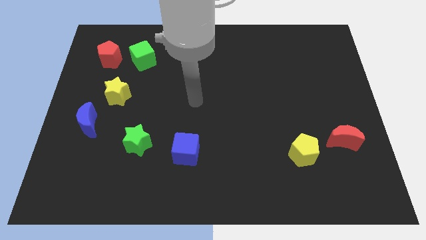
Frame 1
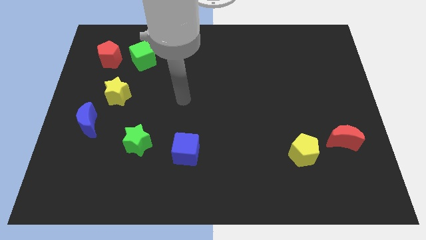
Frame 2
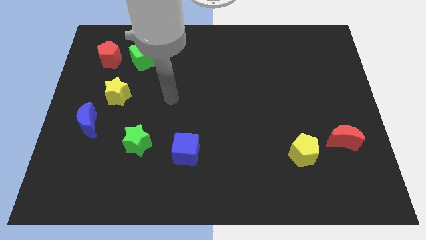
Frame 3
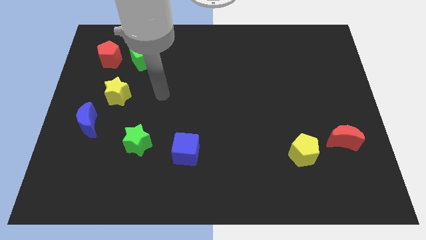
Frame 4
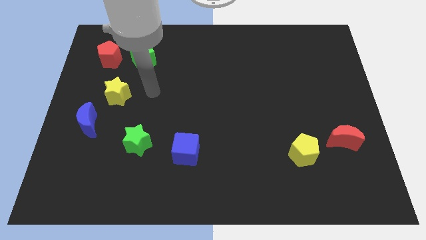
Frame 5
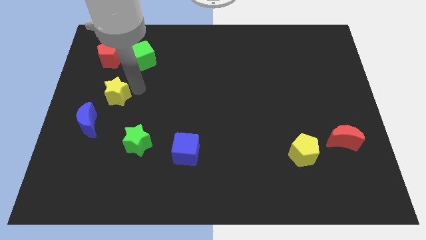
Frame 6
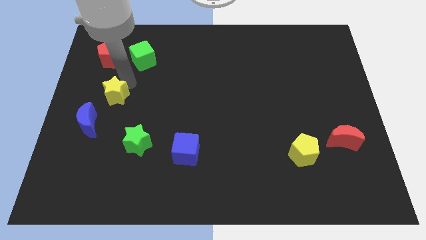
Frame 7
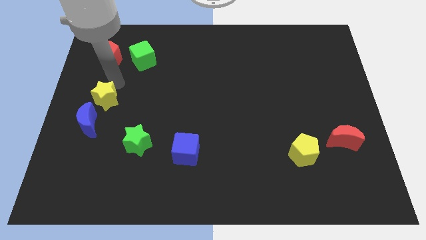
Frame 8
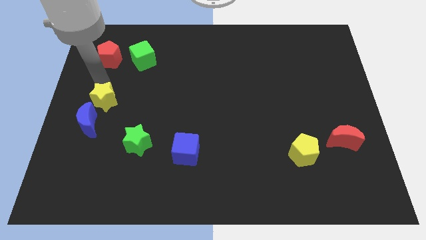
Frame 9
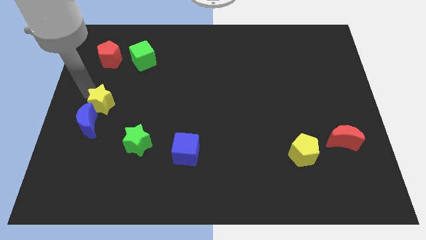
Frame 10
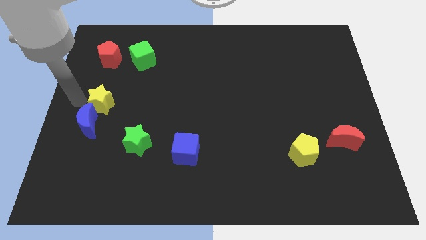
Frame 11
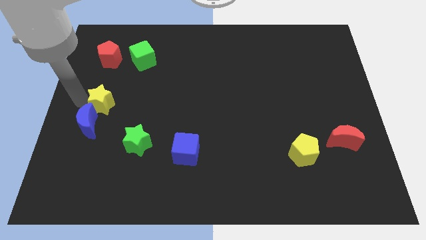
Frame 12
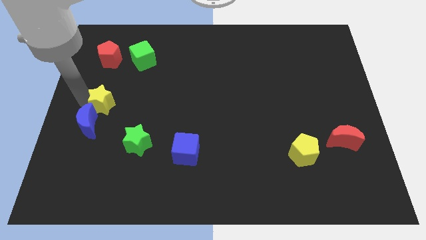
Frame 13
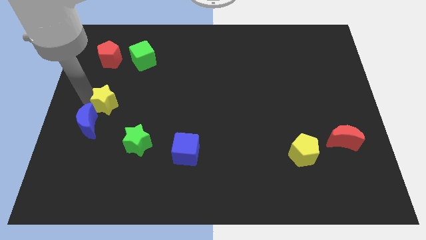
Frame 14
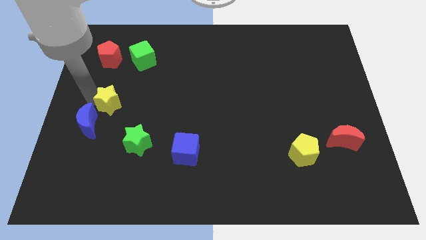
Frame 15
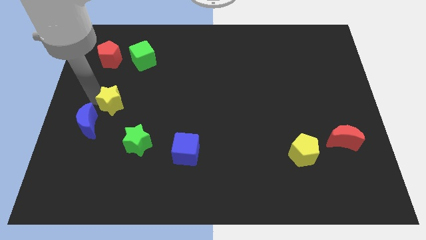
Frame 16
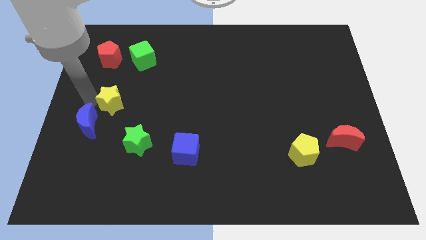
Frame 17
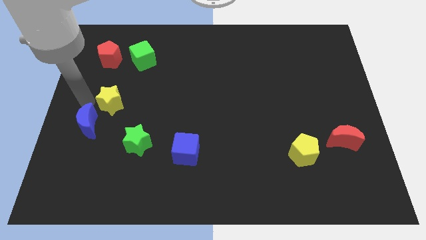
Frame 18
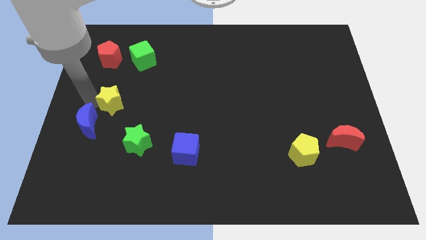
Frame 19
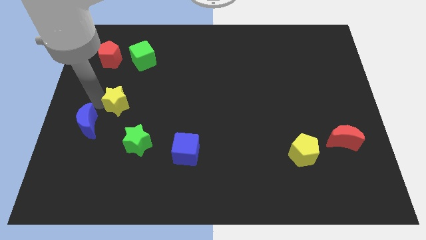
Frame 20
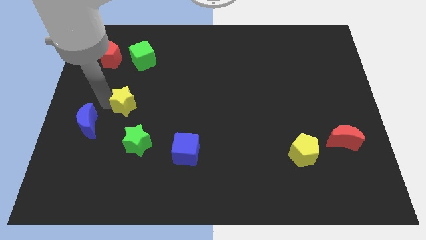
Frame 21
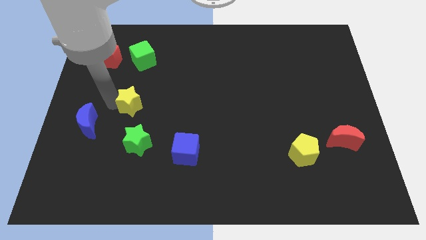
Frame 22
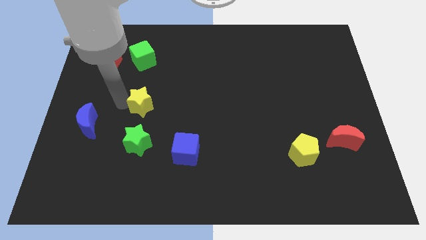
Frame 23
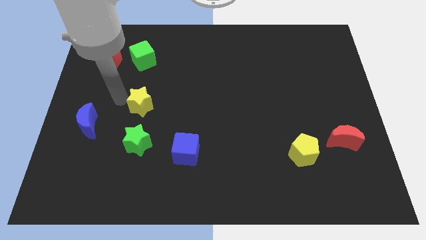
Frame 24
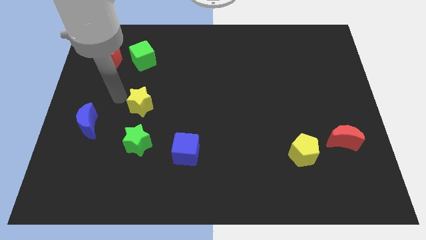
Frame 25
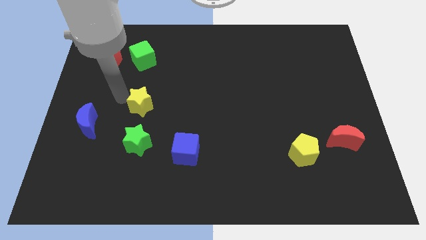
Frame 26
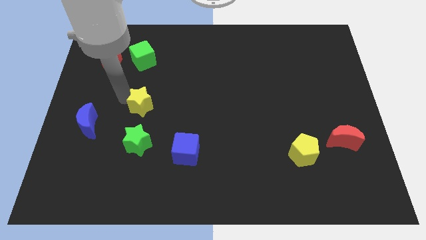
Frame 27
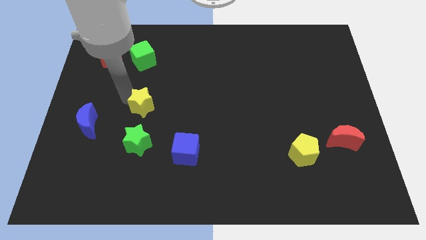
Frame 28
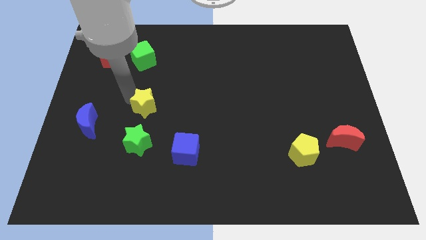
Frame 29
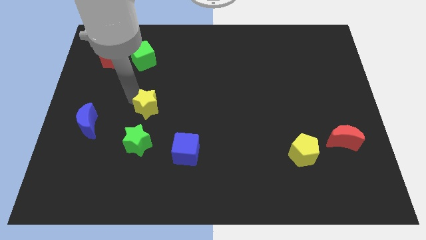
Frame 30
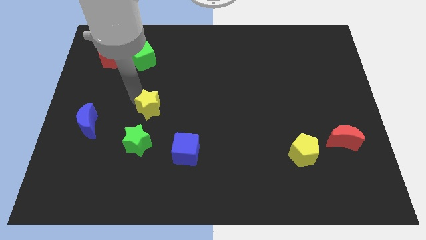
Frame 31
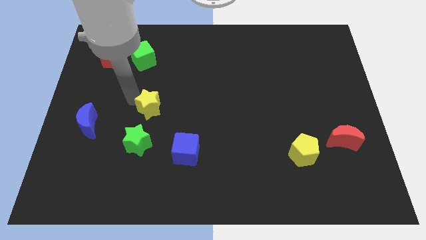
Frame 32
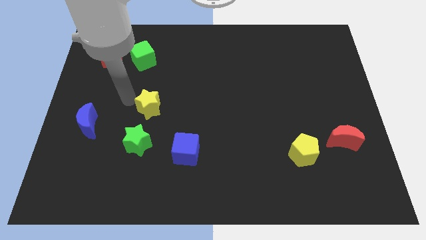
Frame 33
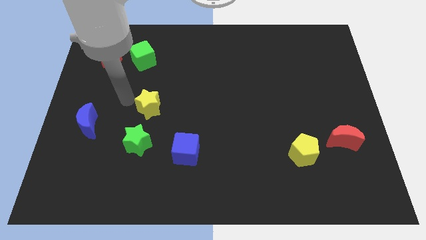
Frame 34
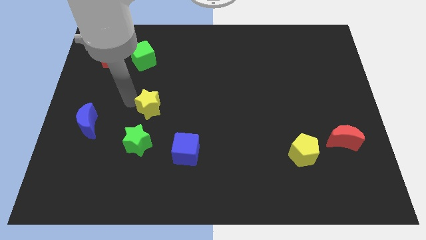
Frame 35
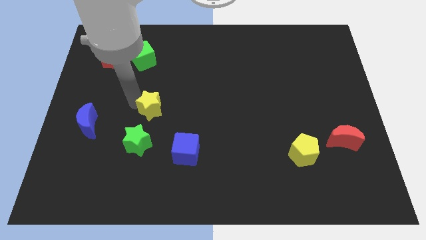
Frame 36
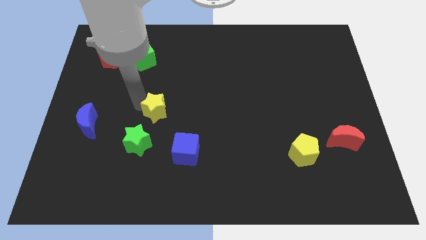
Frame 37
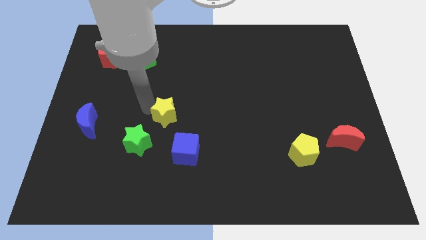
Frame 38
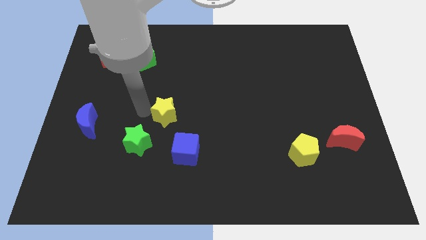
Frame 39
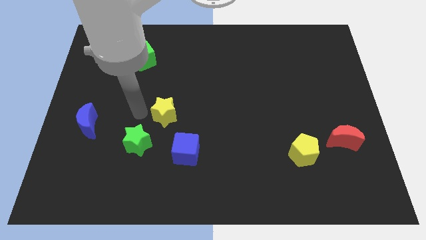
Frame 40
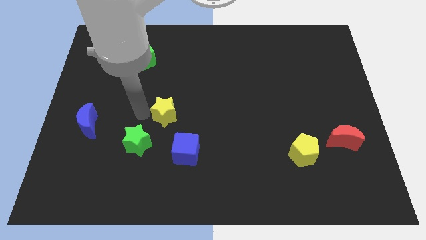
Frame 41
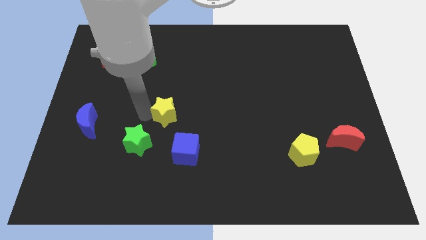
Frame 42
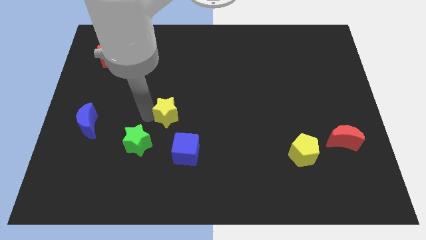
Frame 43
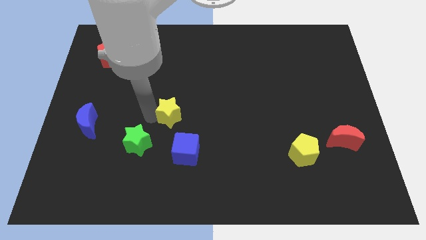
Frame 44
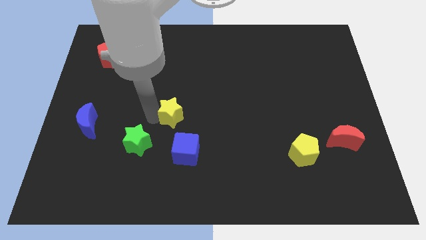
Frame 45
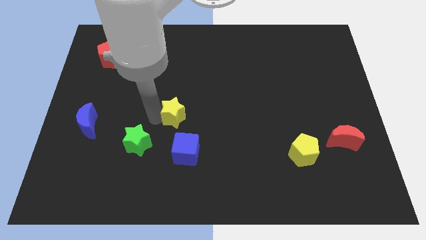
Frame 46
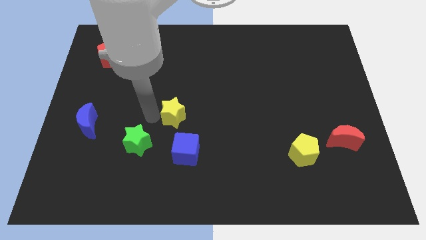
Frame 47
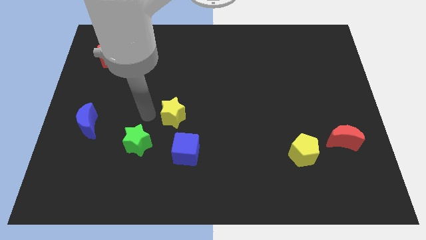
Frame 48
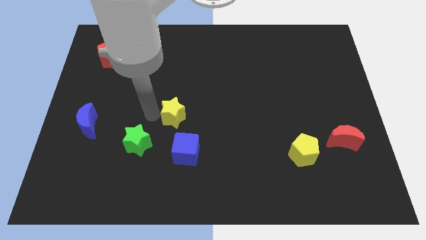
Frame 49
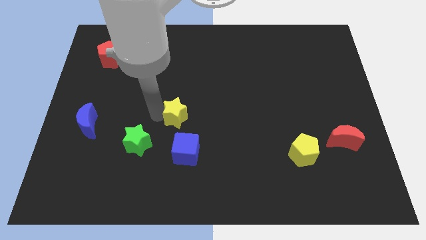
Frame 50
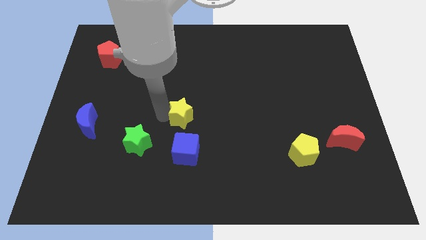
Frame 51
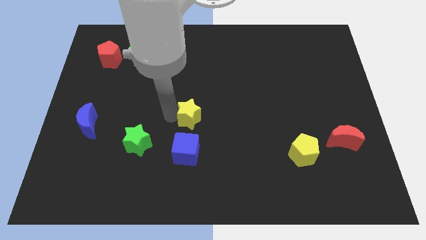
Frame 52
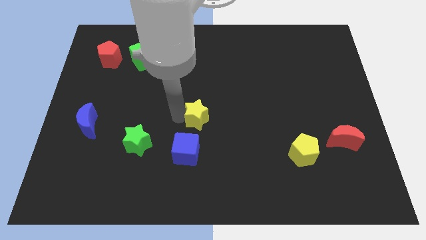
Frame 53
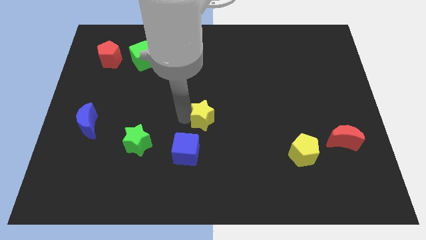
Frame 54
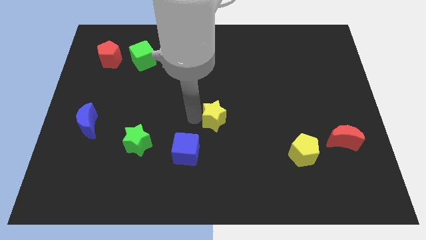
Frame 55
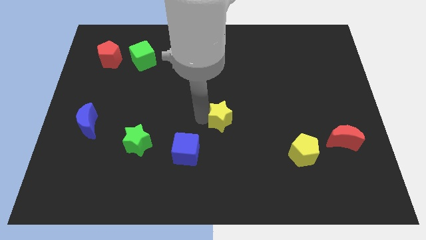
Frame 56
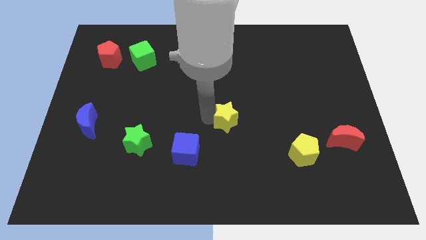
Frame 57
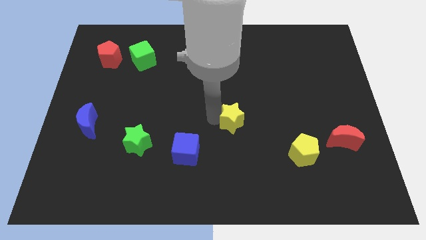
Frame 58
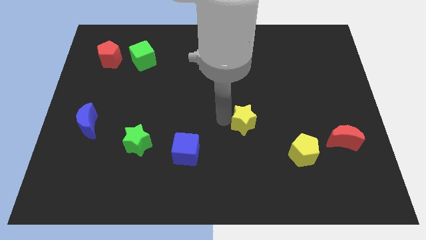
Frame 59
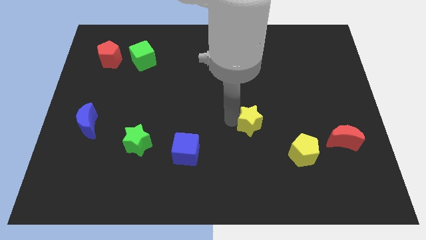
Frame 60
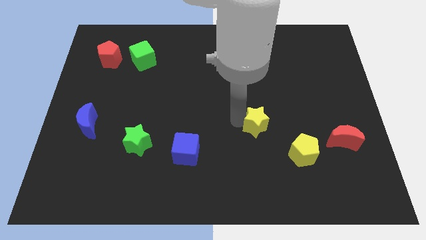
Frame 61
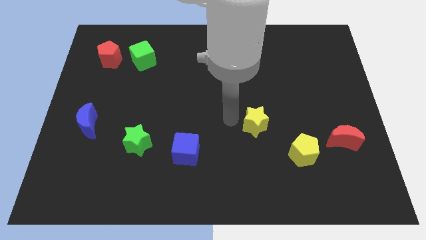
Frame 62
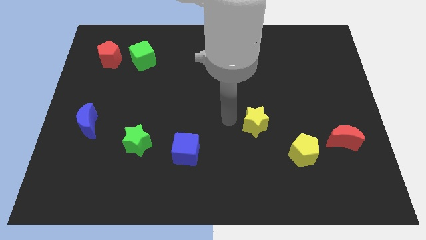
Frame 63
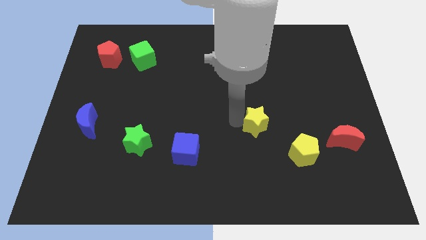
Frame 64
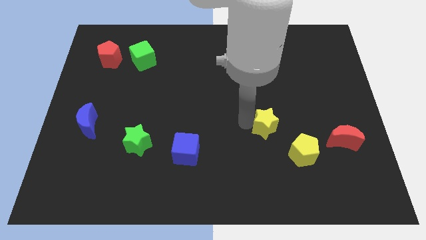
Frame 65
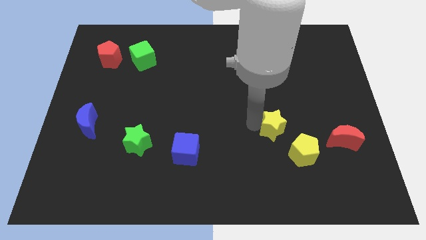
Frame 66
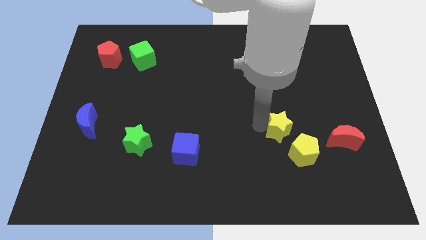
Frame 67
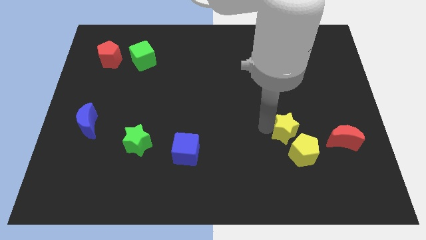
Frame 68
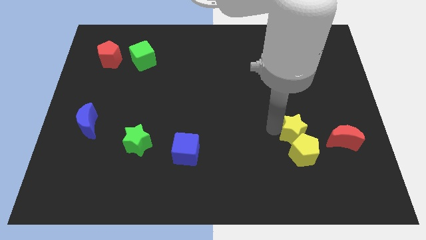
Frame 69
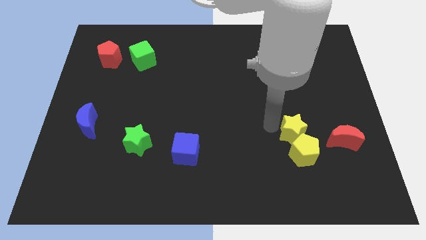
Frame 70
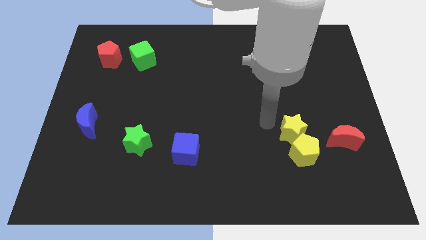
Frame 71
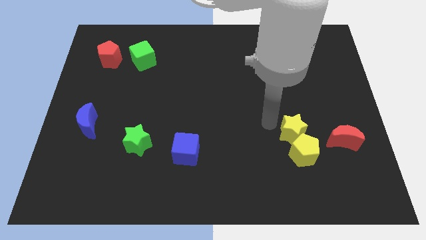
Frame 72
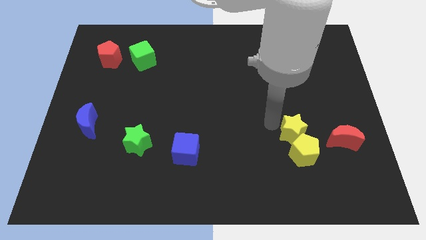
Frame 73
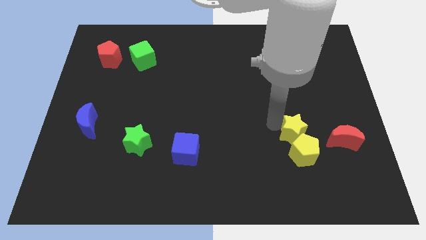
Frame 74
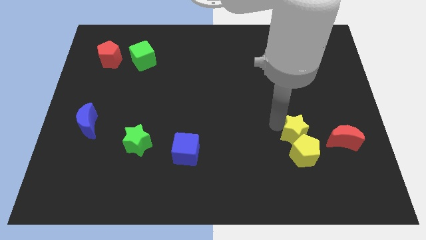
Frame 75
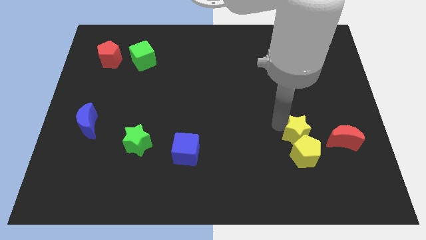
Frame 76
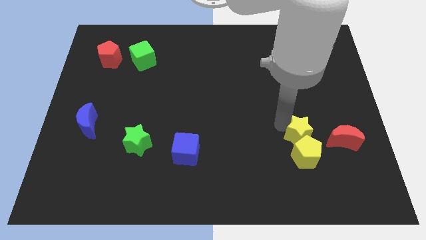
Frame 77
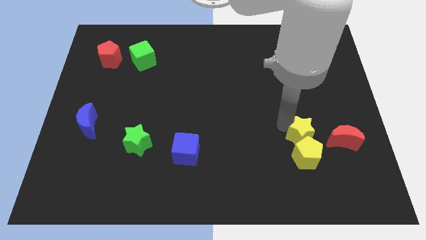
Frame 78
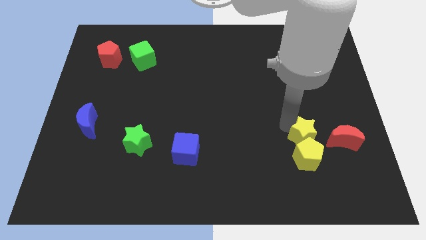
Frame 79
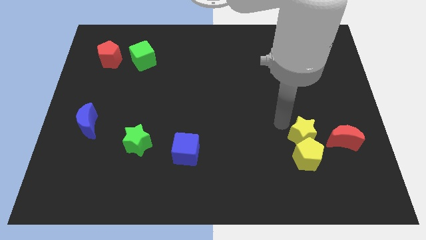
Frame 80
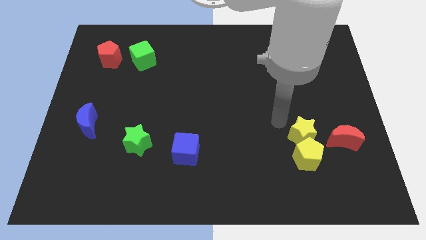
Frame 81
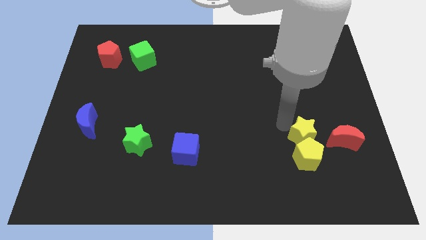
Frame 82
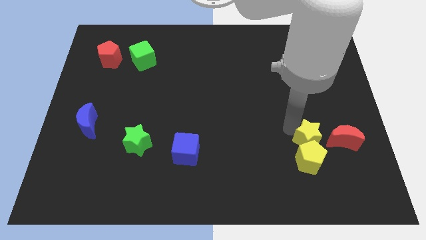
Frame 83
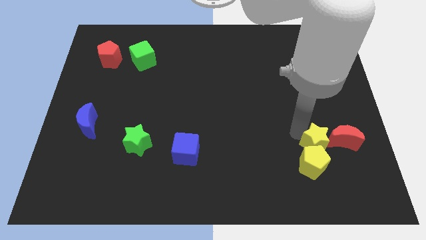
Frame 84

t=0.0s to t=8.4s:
push the yellow star diagonally down and to the left of the red moon
